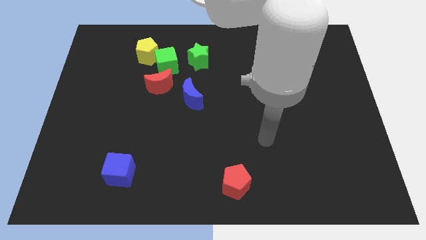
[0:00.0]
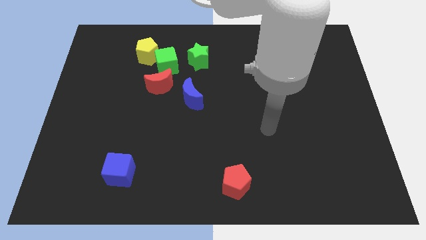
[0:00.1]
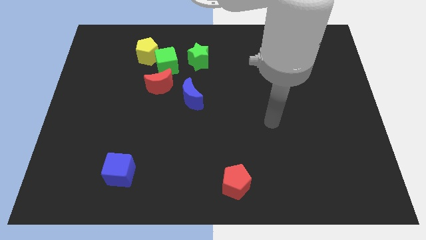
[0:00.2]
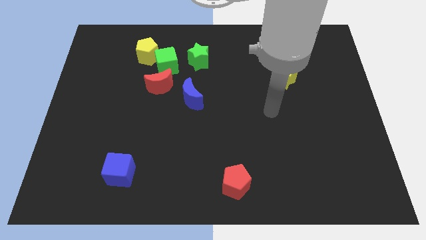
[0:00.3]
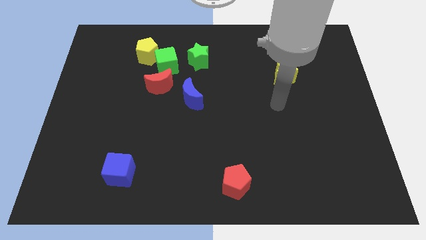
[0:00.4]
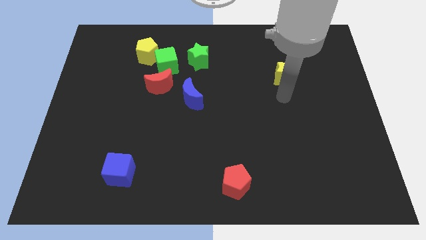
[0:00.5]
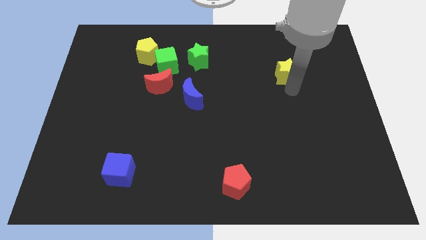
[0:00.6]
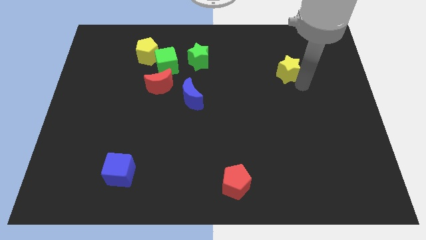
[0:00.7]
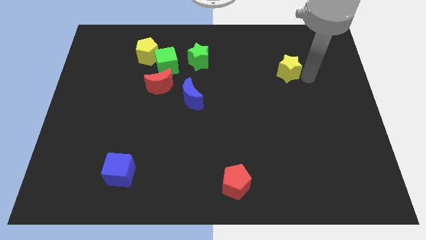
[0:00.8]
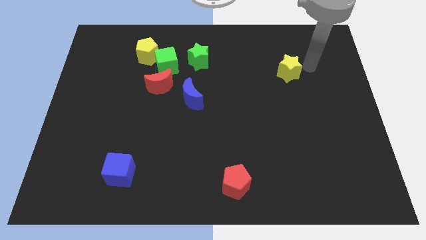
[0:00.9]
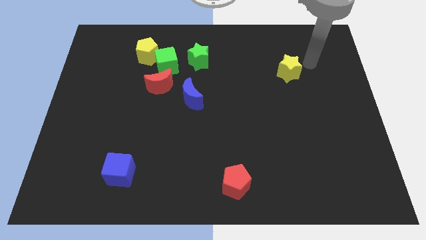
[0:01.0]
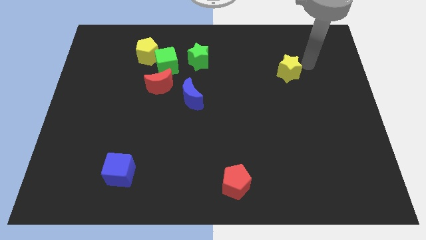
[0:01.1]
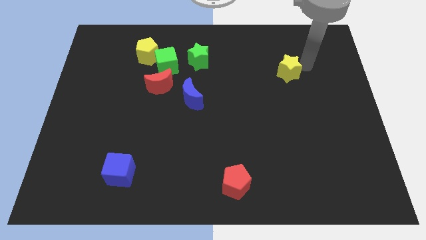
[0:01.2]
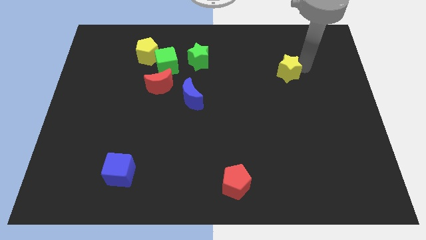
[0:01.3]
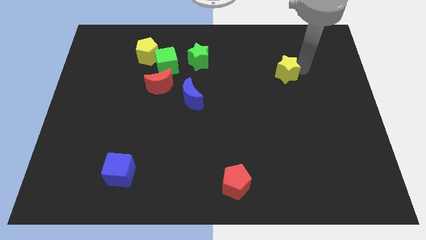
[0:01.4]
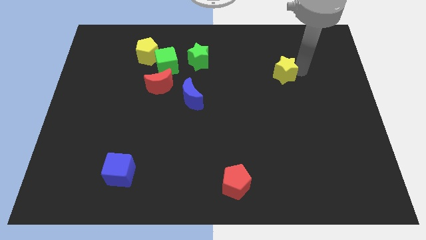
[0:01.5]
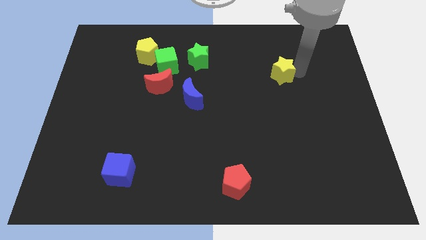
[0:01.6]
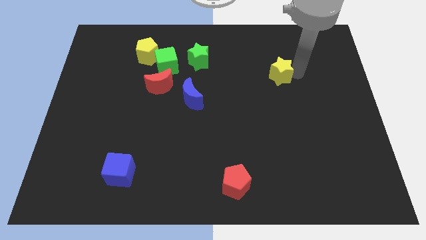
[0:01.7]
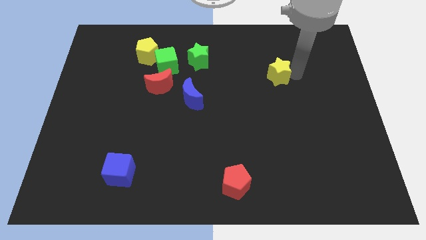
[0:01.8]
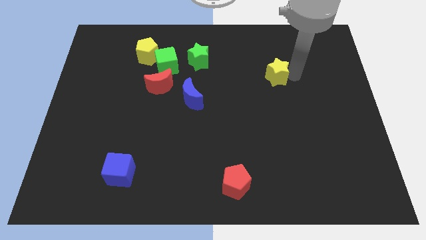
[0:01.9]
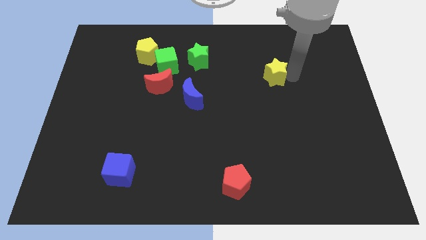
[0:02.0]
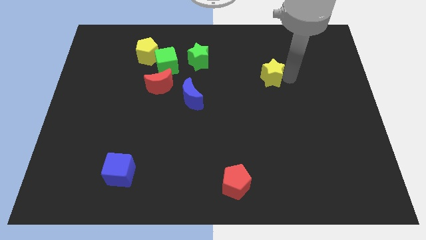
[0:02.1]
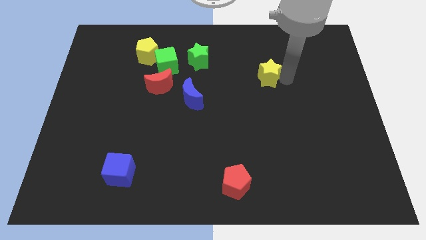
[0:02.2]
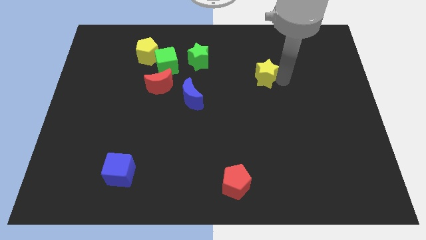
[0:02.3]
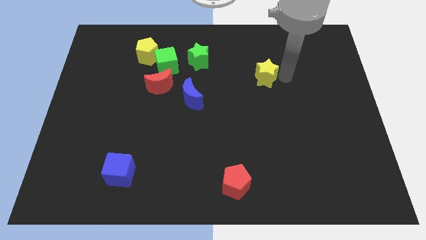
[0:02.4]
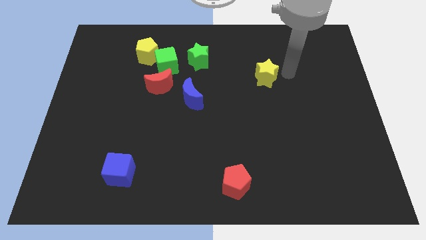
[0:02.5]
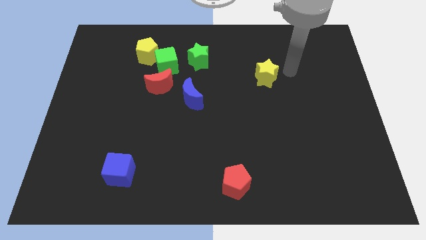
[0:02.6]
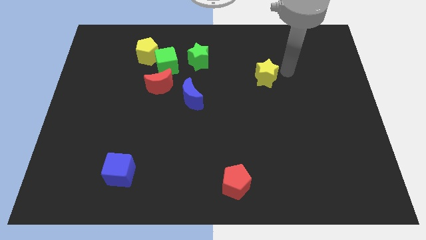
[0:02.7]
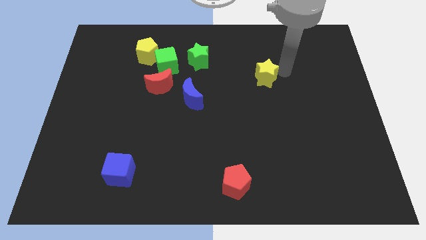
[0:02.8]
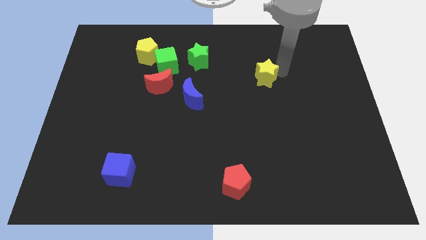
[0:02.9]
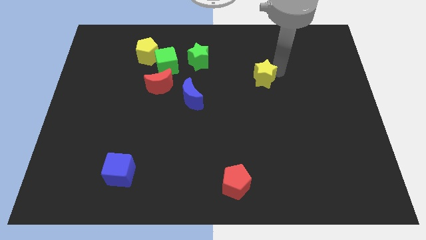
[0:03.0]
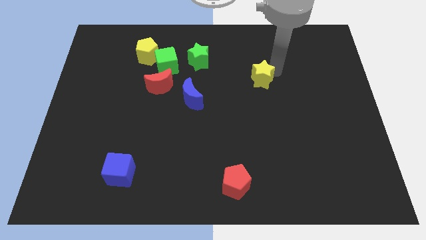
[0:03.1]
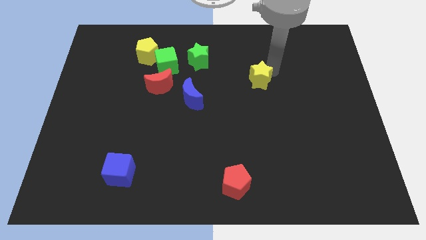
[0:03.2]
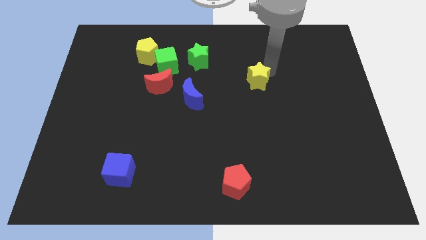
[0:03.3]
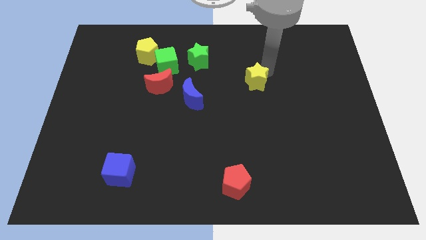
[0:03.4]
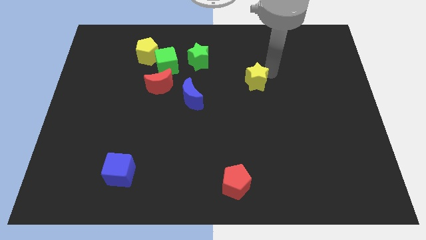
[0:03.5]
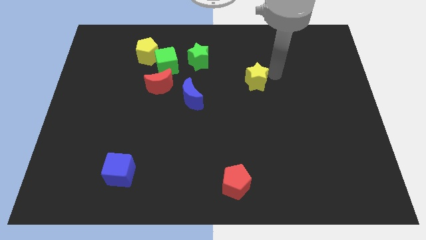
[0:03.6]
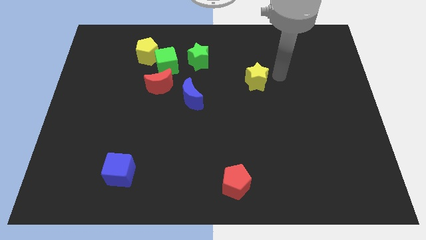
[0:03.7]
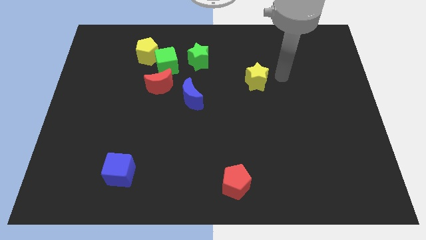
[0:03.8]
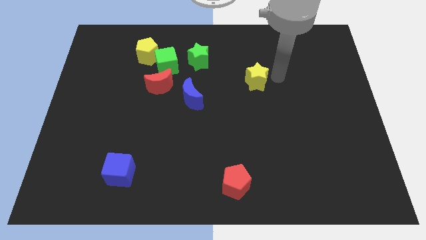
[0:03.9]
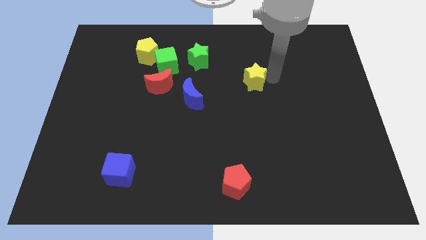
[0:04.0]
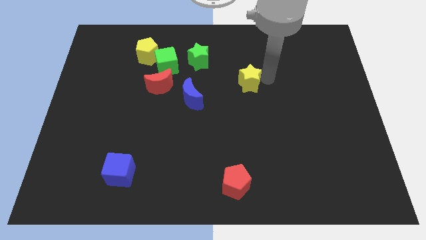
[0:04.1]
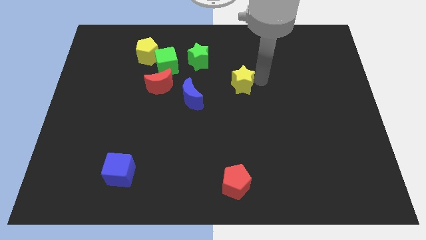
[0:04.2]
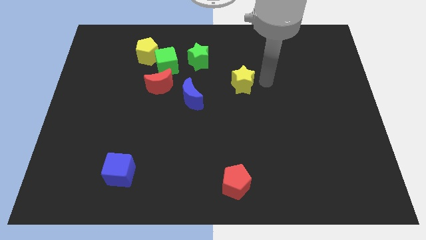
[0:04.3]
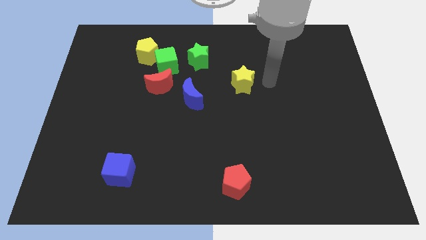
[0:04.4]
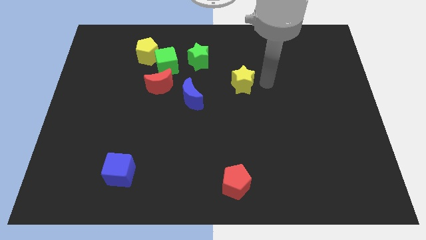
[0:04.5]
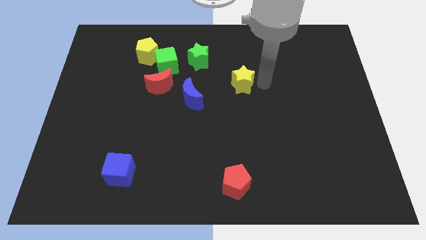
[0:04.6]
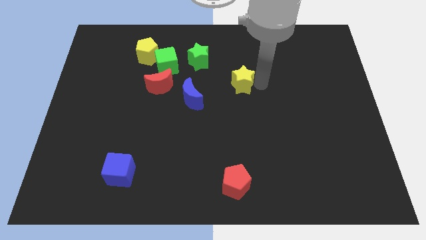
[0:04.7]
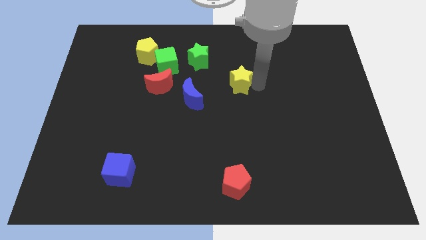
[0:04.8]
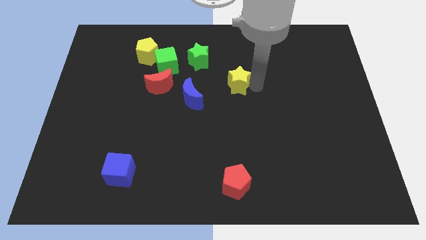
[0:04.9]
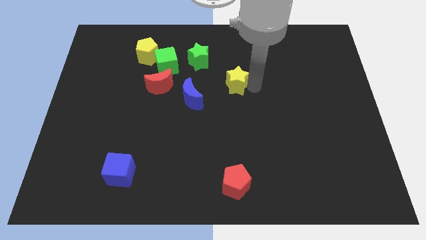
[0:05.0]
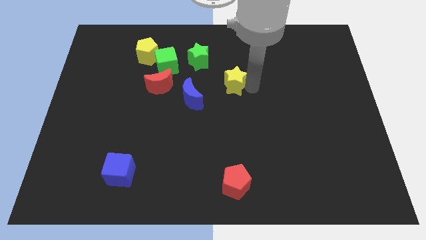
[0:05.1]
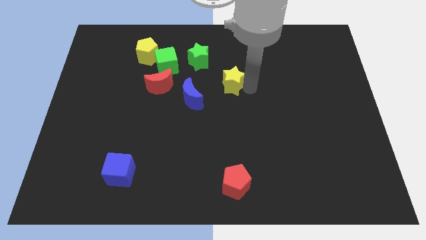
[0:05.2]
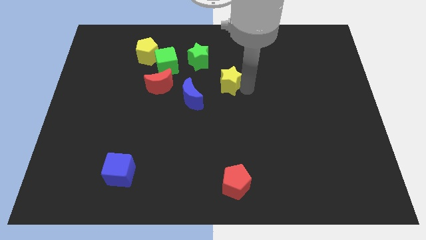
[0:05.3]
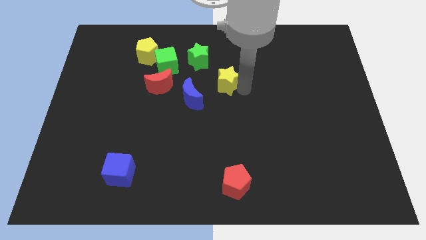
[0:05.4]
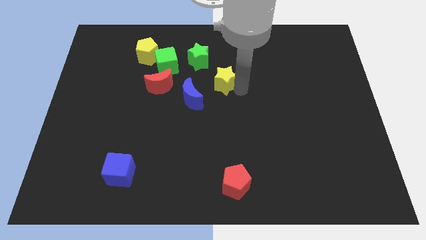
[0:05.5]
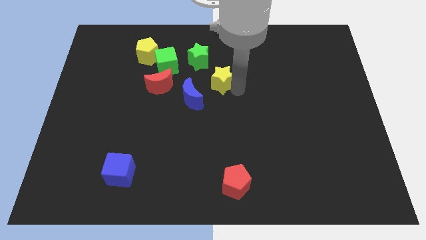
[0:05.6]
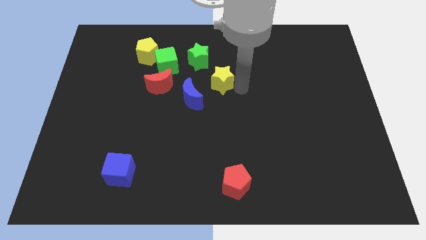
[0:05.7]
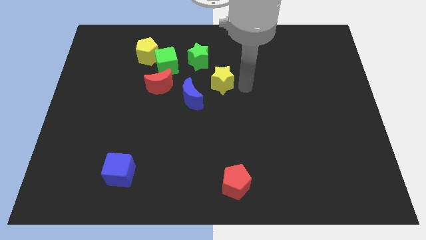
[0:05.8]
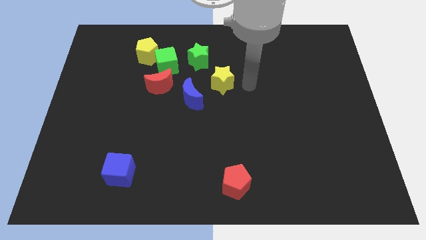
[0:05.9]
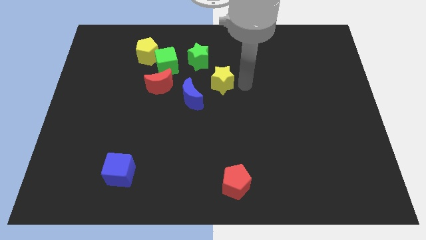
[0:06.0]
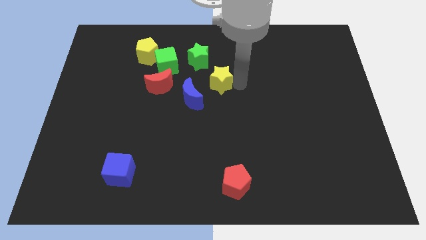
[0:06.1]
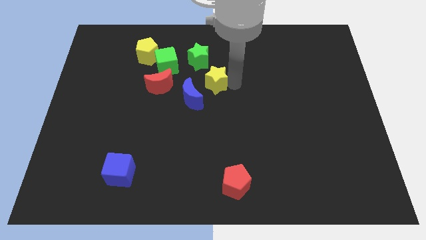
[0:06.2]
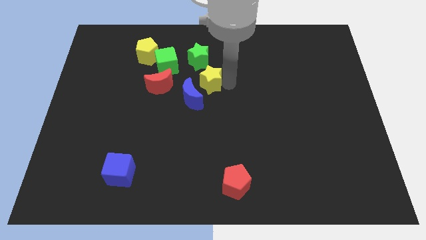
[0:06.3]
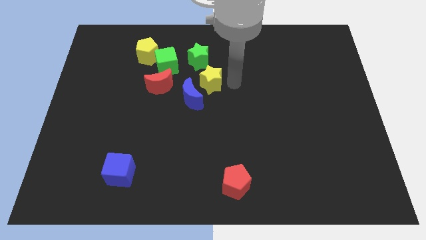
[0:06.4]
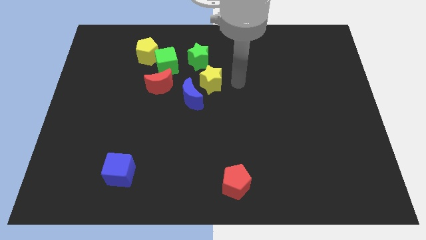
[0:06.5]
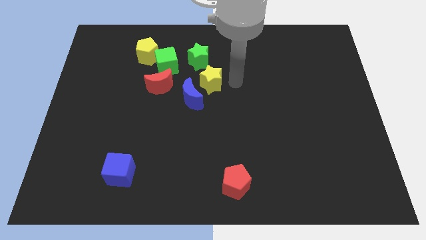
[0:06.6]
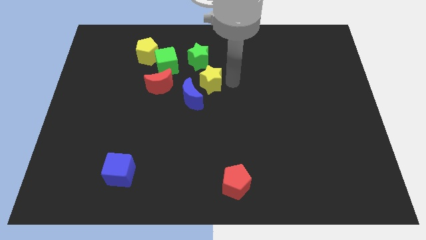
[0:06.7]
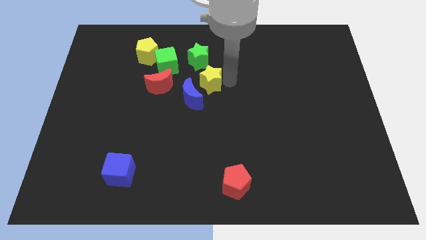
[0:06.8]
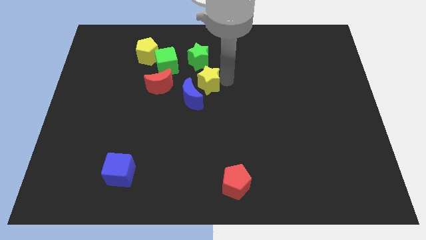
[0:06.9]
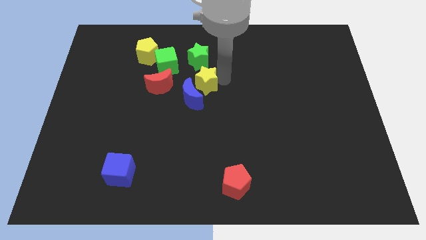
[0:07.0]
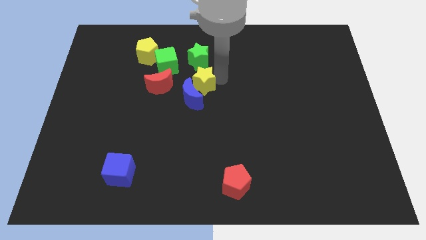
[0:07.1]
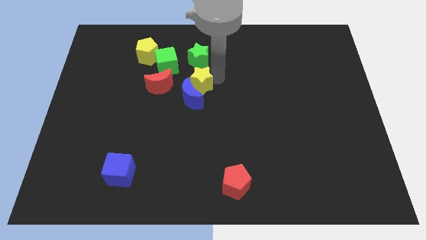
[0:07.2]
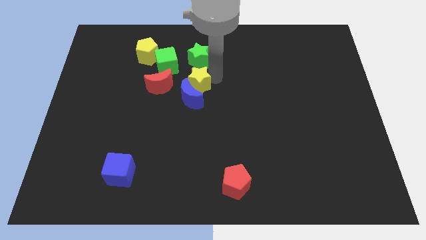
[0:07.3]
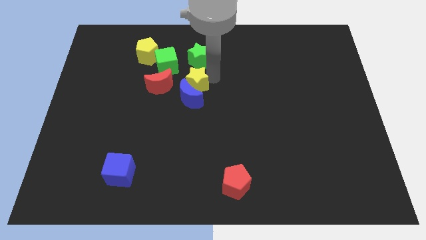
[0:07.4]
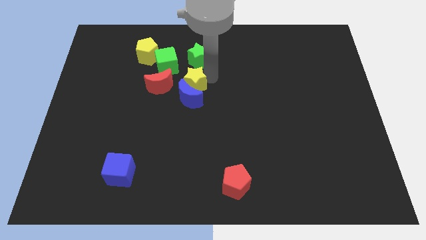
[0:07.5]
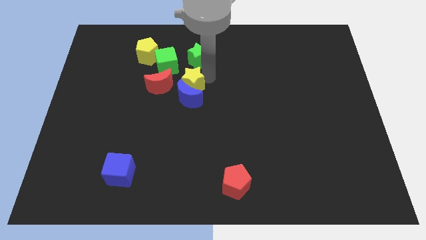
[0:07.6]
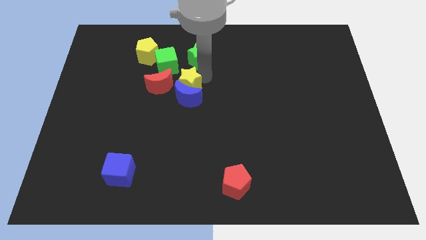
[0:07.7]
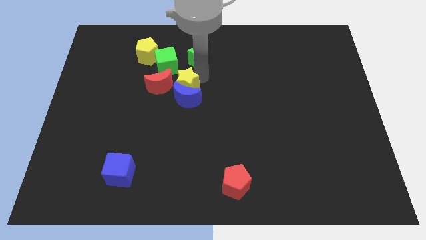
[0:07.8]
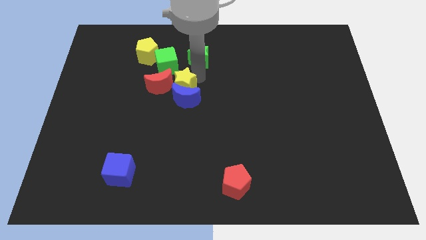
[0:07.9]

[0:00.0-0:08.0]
move the yellow star close to the red moon
